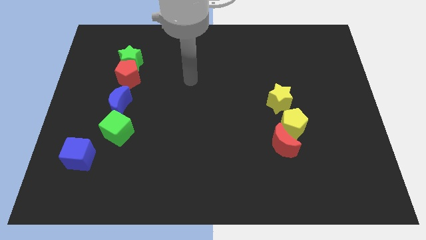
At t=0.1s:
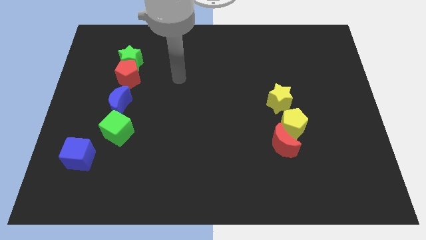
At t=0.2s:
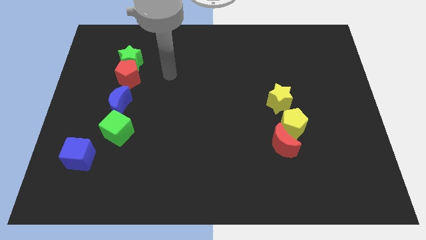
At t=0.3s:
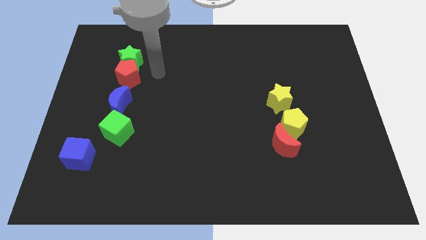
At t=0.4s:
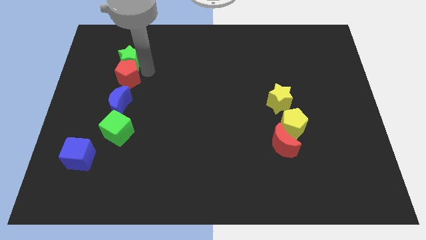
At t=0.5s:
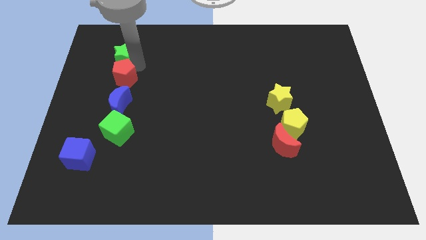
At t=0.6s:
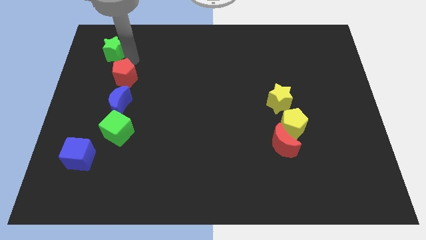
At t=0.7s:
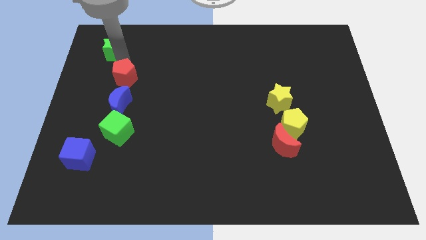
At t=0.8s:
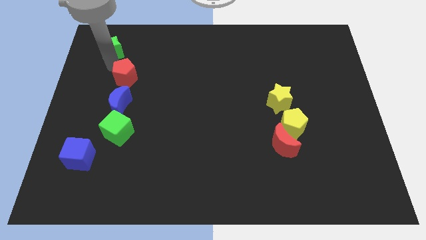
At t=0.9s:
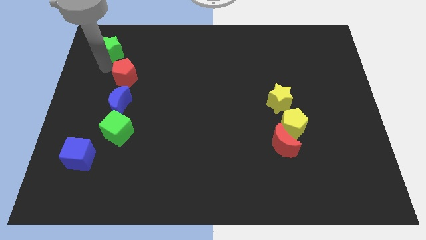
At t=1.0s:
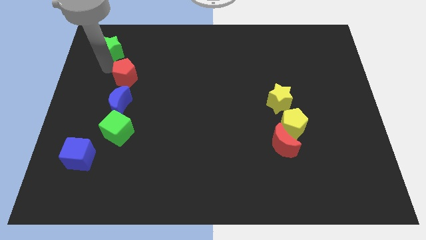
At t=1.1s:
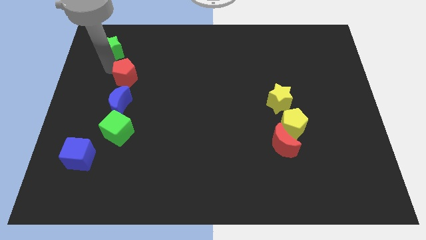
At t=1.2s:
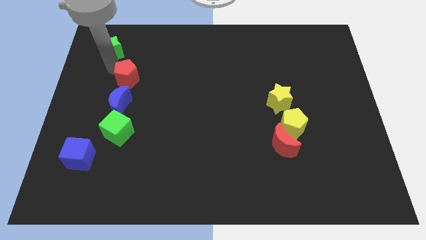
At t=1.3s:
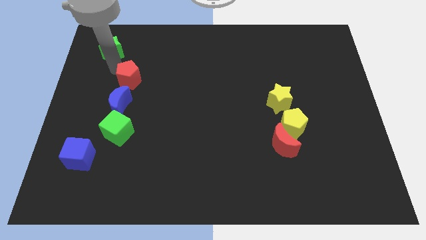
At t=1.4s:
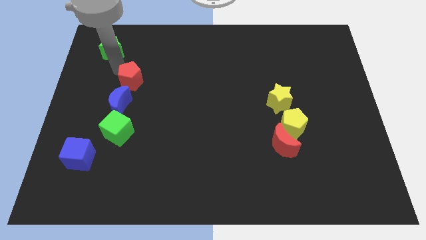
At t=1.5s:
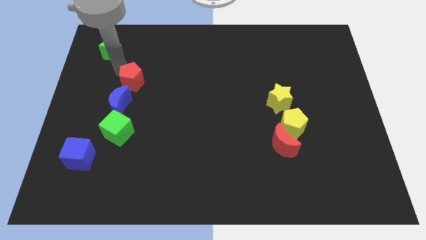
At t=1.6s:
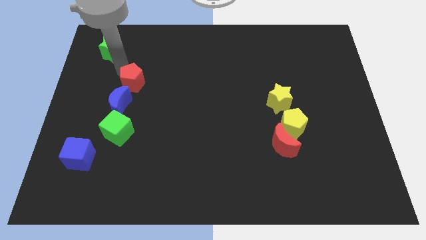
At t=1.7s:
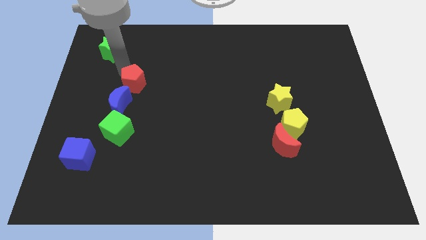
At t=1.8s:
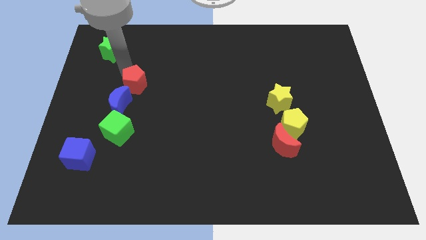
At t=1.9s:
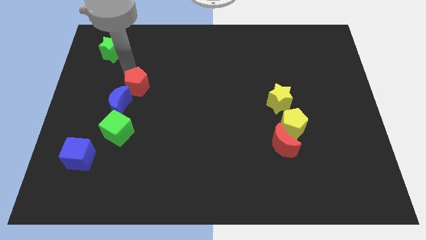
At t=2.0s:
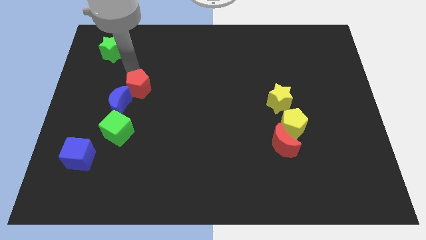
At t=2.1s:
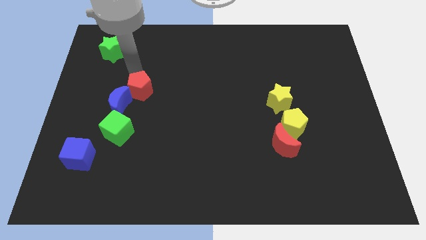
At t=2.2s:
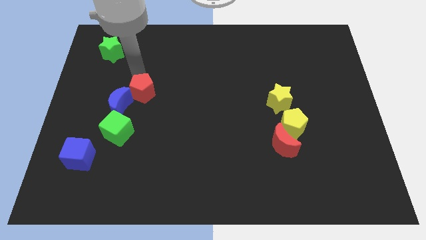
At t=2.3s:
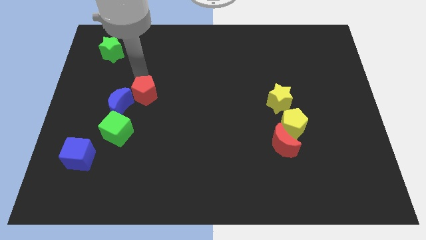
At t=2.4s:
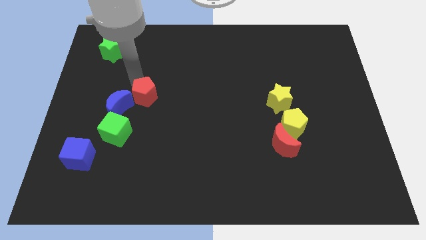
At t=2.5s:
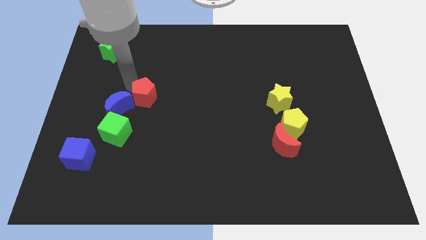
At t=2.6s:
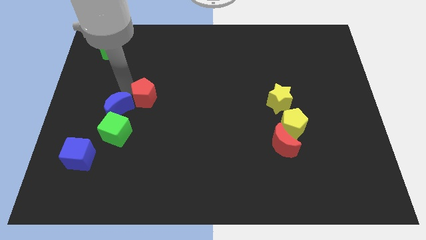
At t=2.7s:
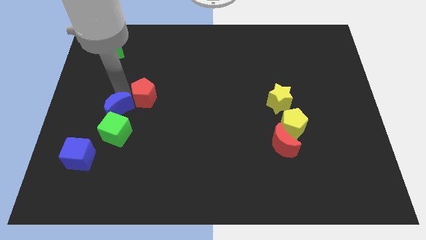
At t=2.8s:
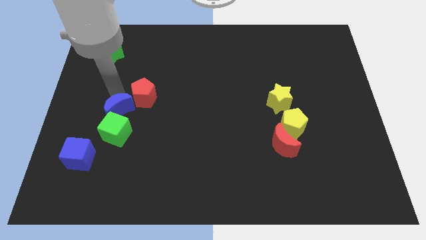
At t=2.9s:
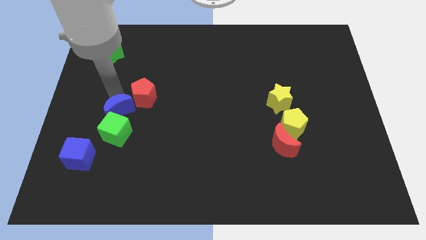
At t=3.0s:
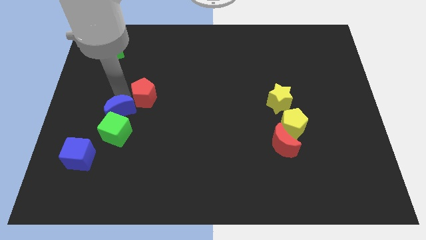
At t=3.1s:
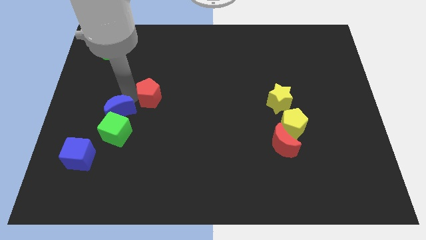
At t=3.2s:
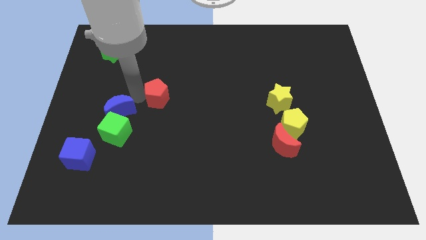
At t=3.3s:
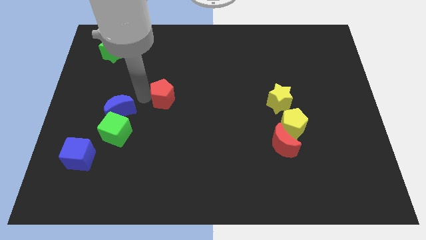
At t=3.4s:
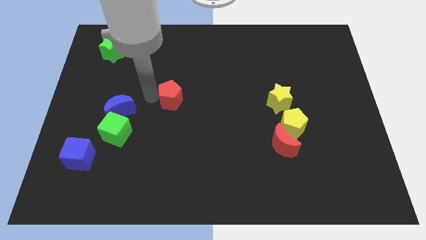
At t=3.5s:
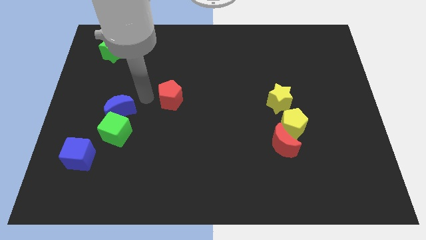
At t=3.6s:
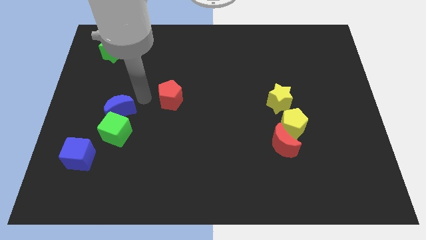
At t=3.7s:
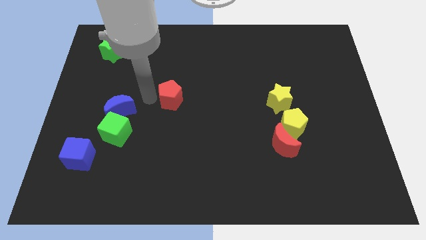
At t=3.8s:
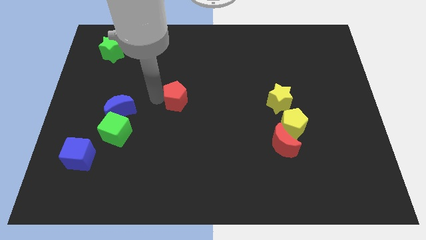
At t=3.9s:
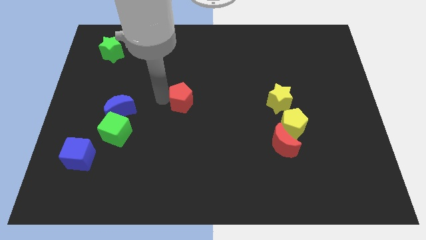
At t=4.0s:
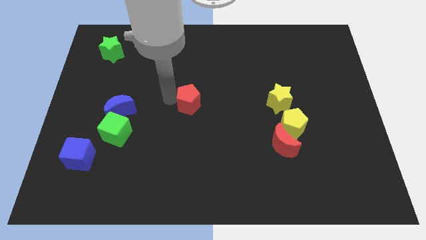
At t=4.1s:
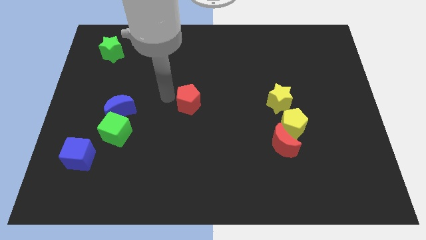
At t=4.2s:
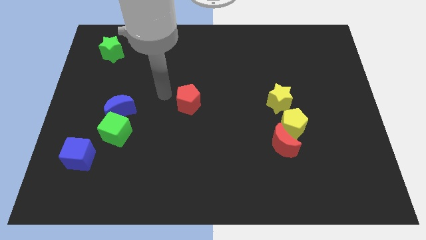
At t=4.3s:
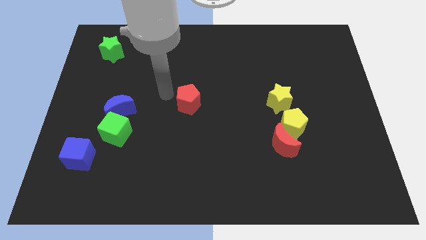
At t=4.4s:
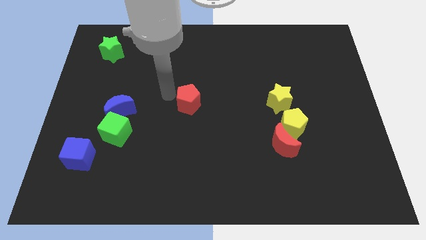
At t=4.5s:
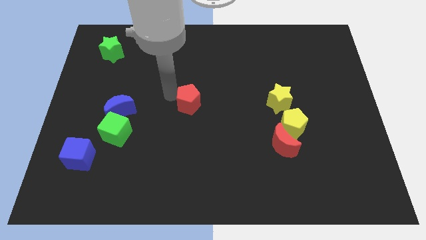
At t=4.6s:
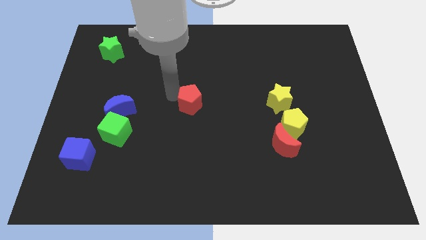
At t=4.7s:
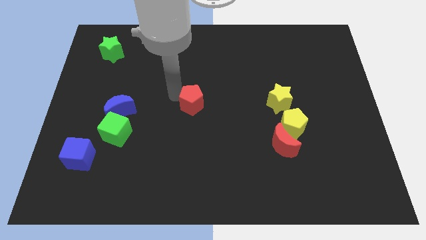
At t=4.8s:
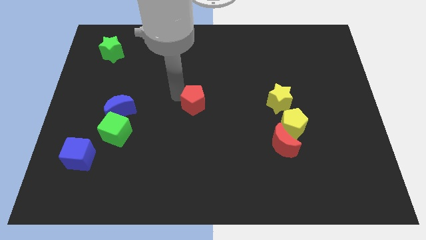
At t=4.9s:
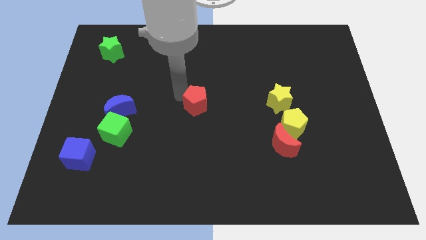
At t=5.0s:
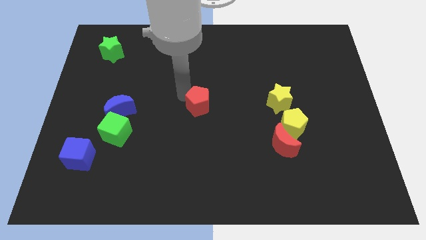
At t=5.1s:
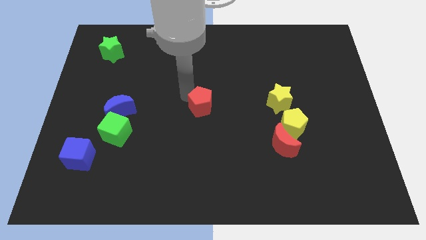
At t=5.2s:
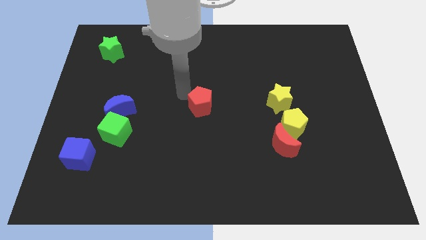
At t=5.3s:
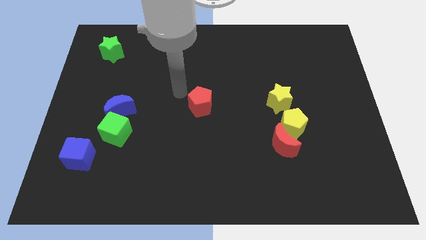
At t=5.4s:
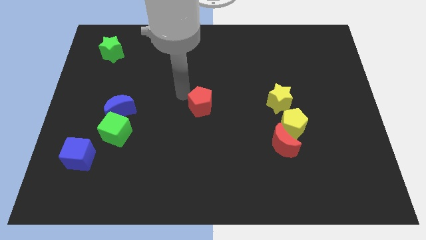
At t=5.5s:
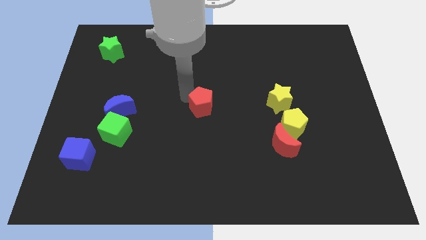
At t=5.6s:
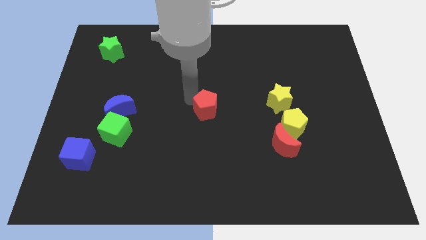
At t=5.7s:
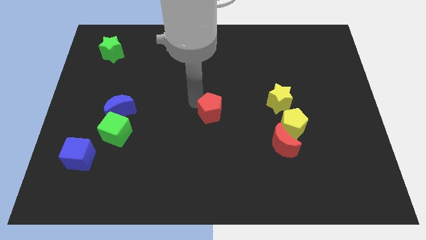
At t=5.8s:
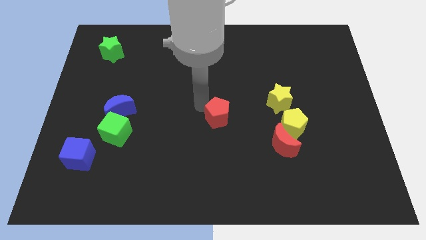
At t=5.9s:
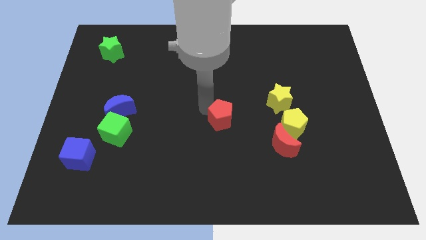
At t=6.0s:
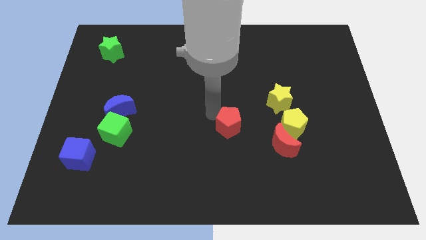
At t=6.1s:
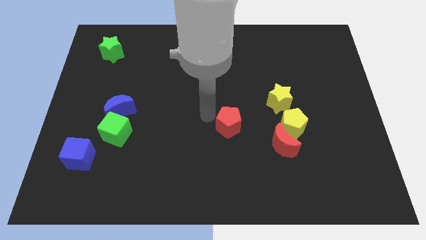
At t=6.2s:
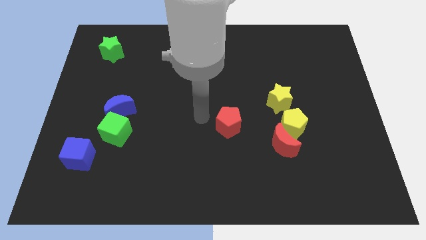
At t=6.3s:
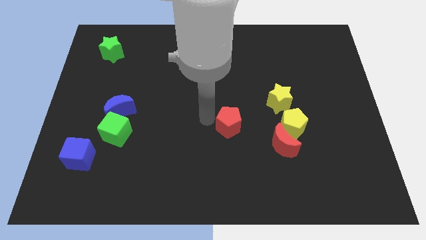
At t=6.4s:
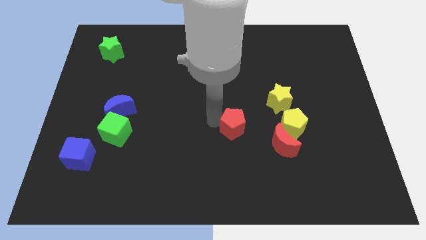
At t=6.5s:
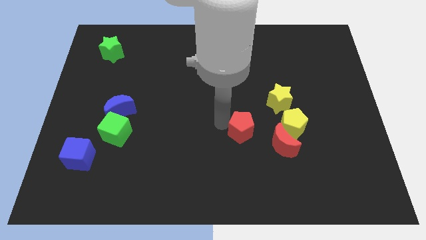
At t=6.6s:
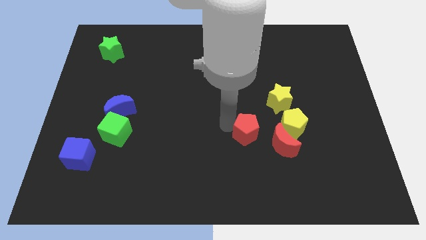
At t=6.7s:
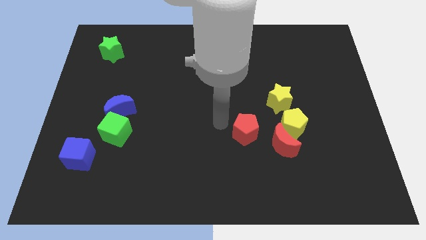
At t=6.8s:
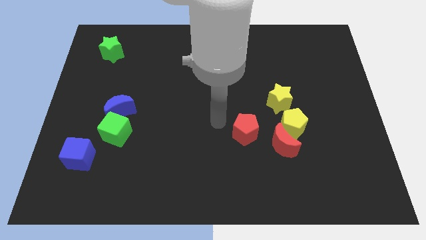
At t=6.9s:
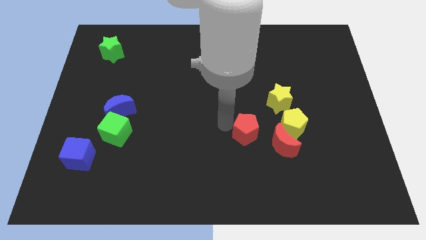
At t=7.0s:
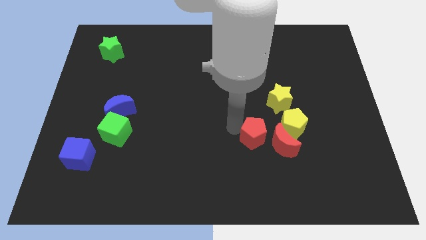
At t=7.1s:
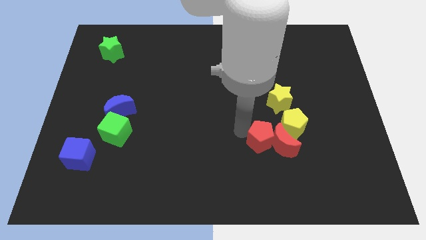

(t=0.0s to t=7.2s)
push the red pentagon to the red moon
